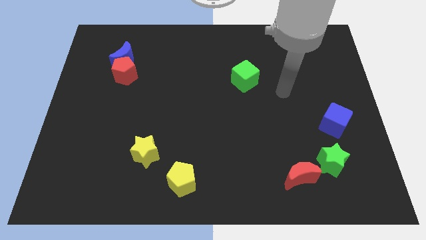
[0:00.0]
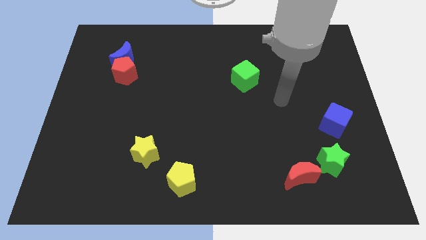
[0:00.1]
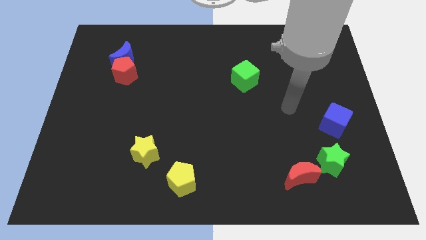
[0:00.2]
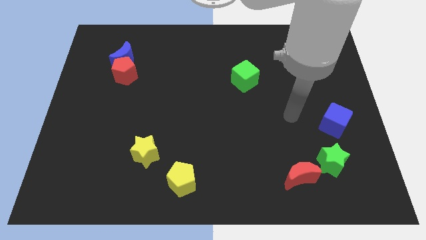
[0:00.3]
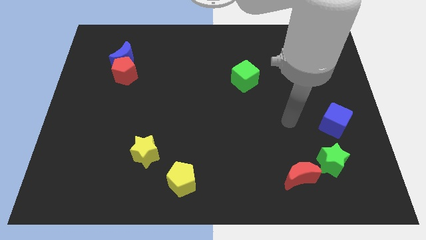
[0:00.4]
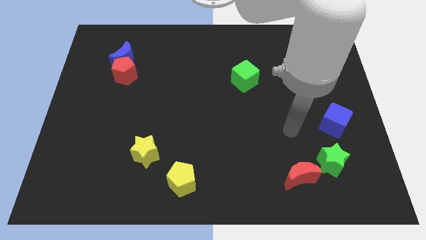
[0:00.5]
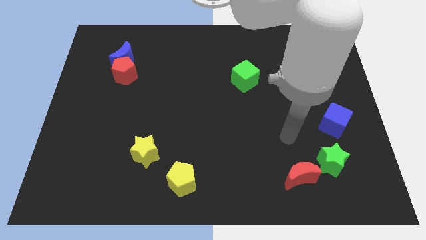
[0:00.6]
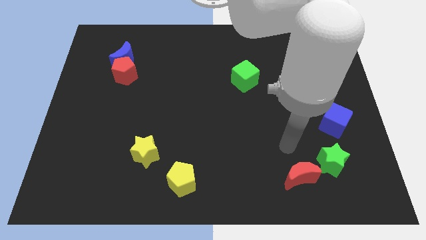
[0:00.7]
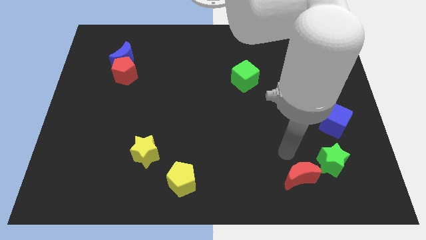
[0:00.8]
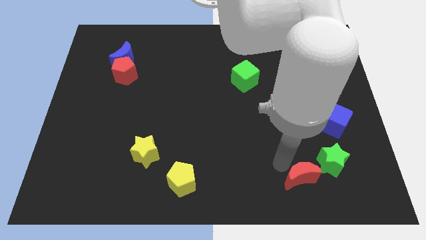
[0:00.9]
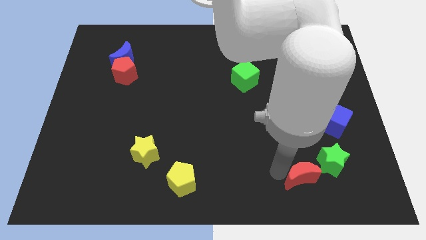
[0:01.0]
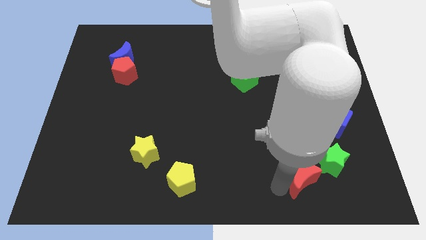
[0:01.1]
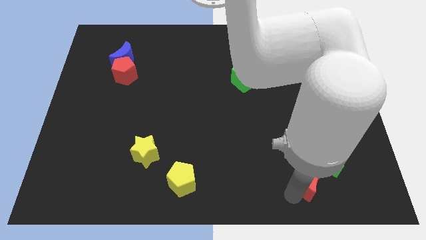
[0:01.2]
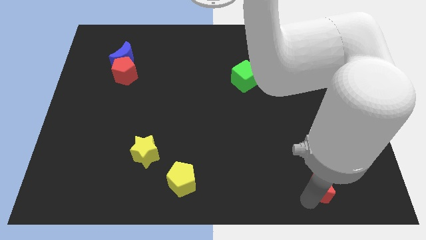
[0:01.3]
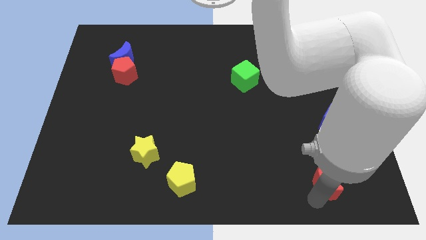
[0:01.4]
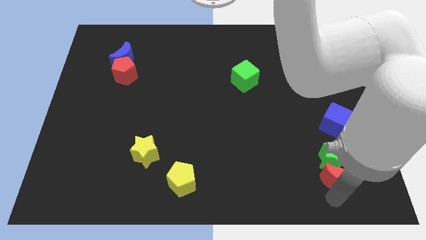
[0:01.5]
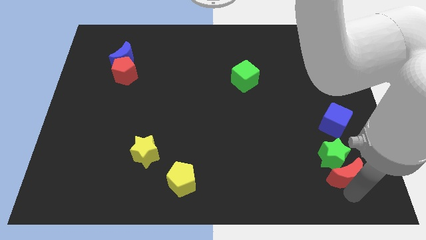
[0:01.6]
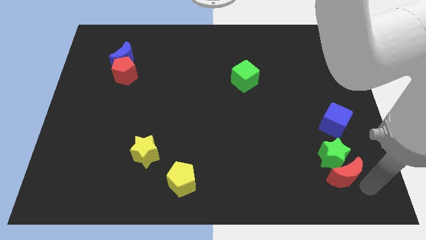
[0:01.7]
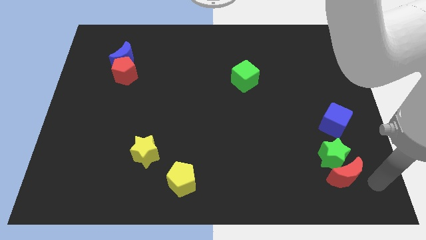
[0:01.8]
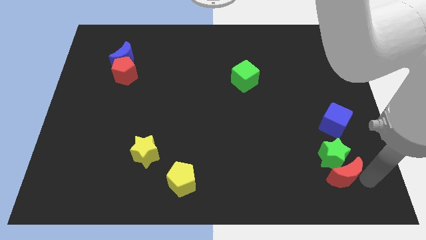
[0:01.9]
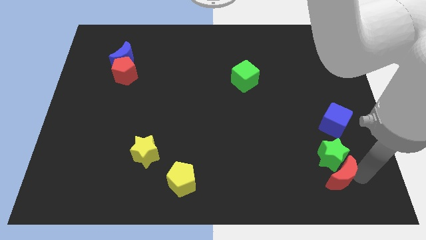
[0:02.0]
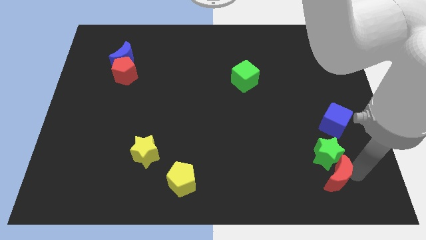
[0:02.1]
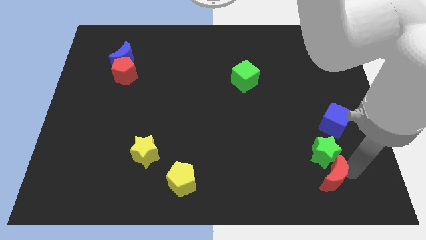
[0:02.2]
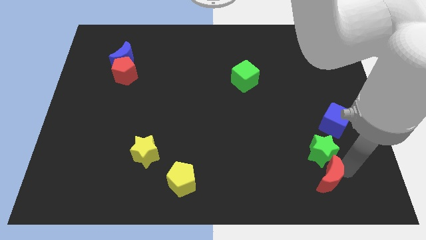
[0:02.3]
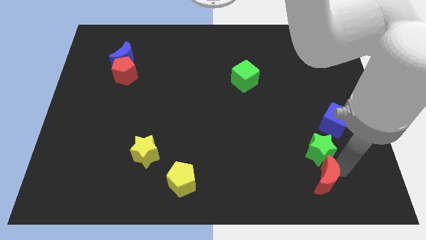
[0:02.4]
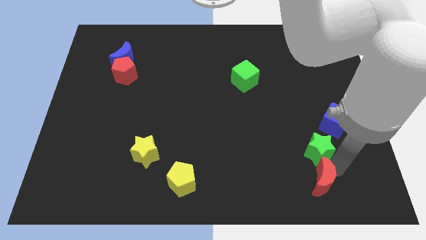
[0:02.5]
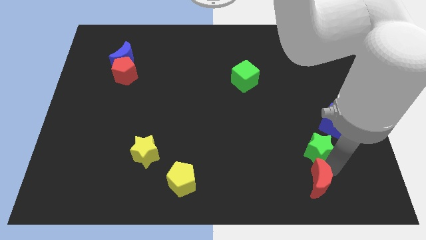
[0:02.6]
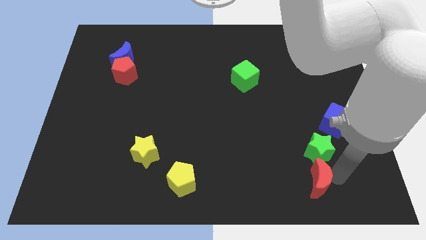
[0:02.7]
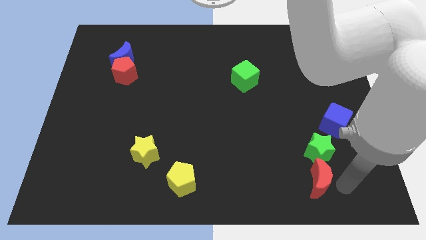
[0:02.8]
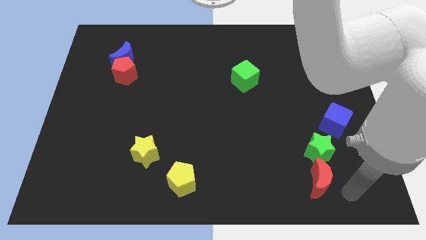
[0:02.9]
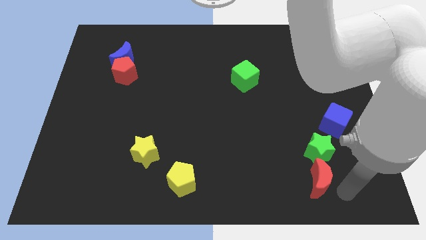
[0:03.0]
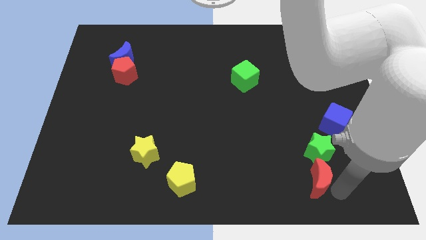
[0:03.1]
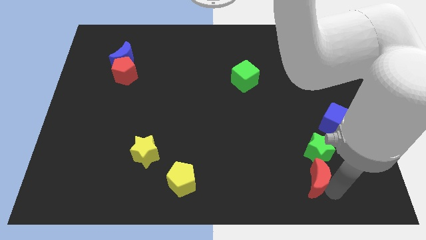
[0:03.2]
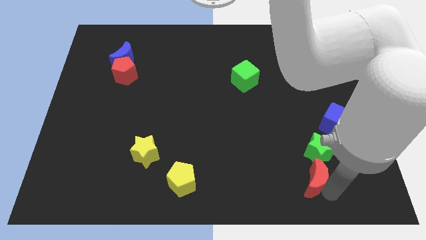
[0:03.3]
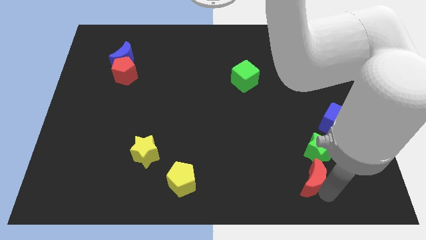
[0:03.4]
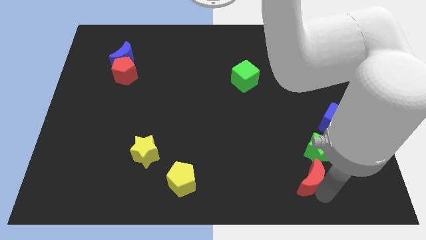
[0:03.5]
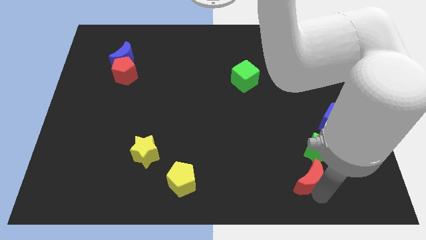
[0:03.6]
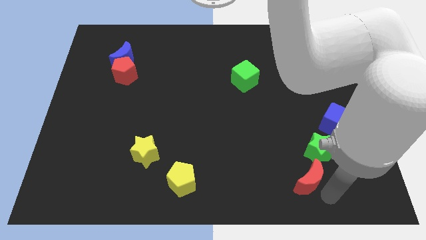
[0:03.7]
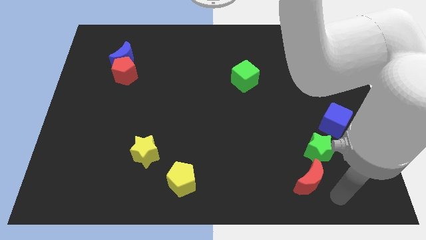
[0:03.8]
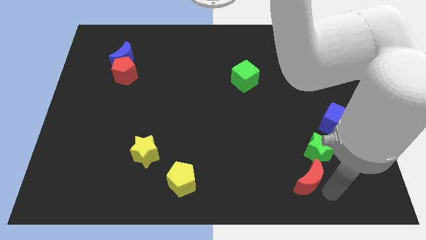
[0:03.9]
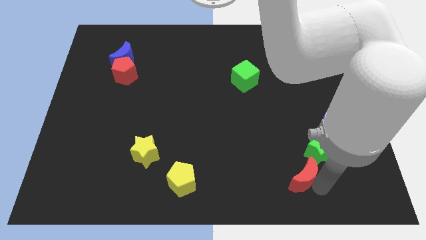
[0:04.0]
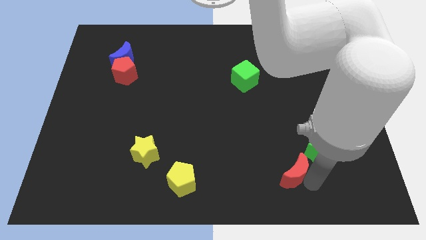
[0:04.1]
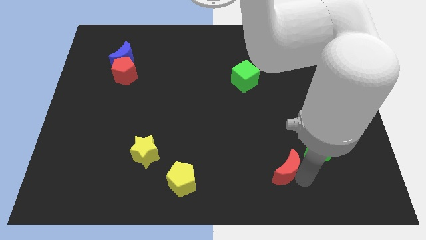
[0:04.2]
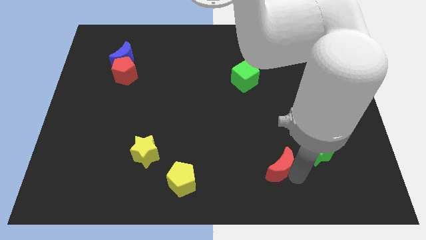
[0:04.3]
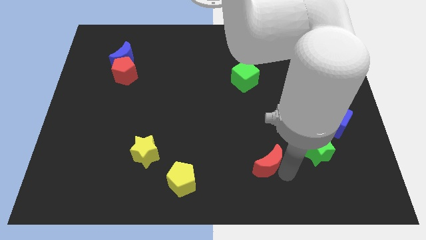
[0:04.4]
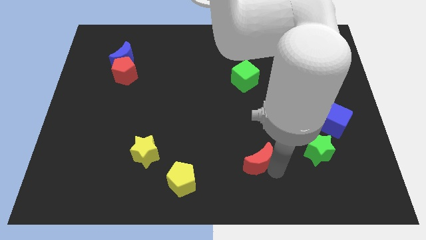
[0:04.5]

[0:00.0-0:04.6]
slightly push the red moon up and left

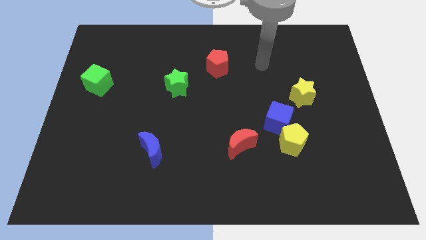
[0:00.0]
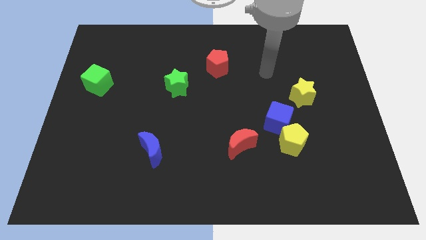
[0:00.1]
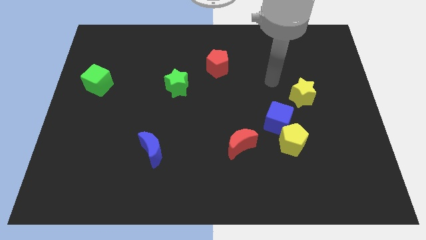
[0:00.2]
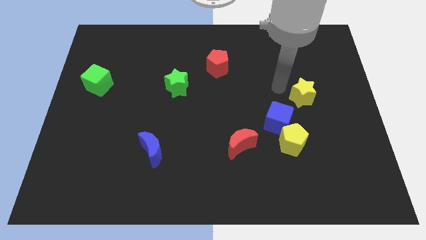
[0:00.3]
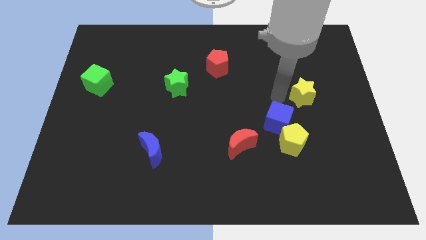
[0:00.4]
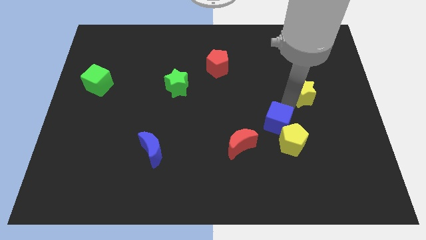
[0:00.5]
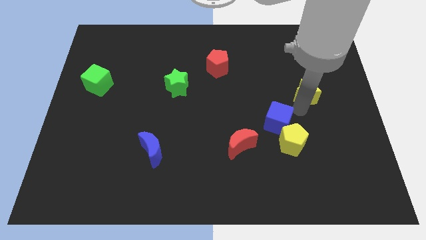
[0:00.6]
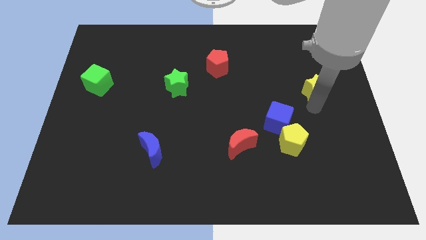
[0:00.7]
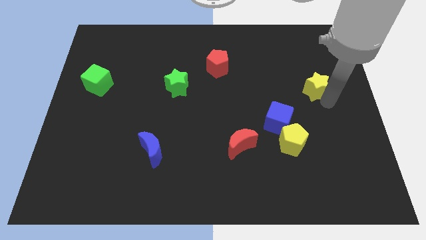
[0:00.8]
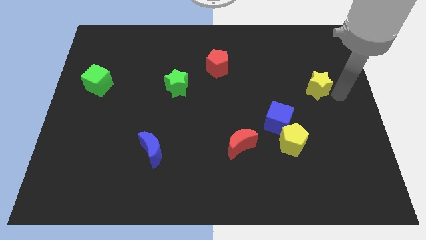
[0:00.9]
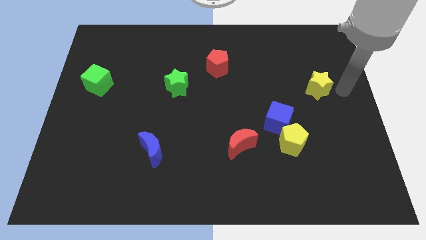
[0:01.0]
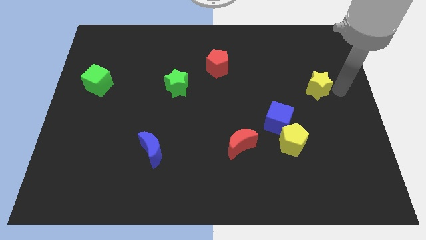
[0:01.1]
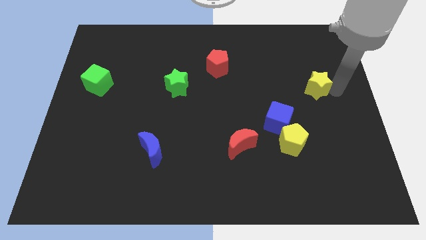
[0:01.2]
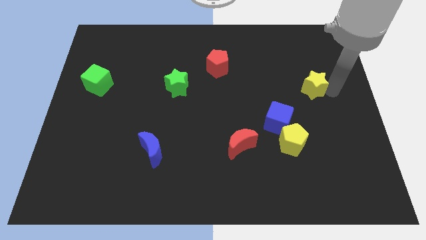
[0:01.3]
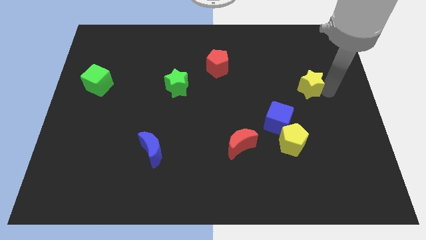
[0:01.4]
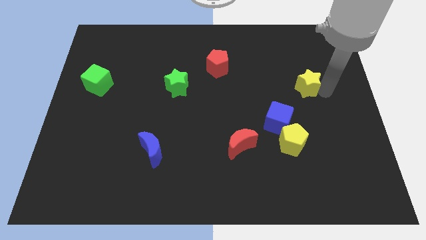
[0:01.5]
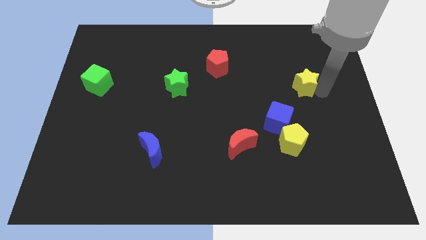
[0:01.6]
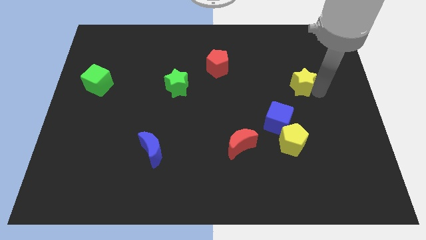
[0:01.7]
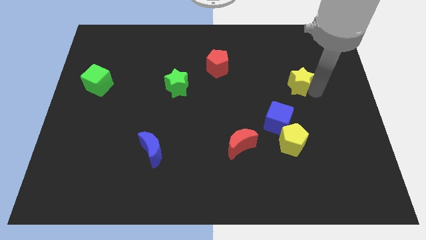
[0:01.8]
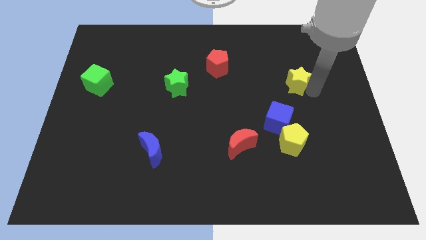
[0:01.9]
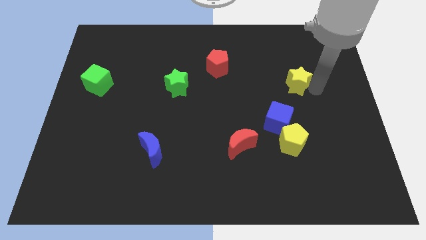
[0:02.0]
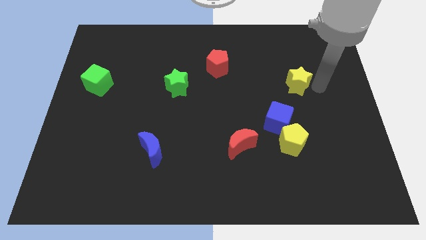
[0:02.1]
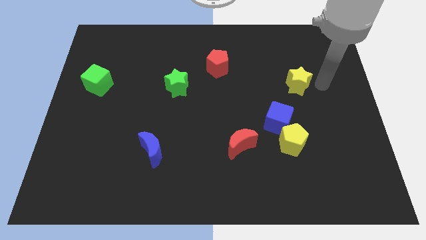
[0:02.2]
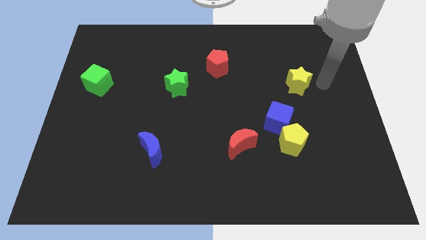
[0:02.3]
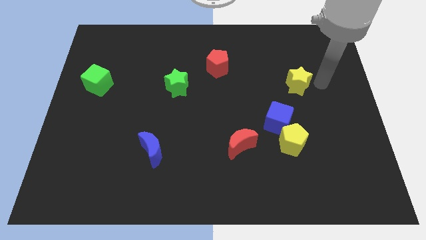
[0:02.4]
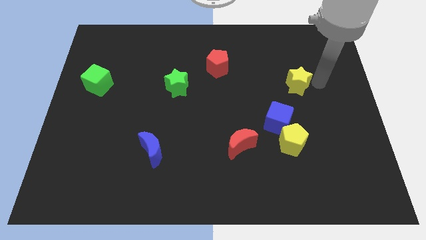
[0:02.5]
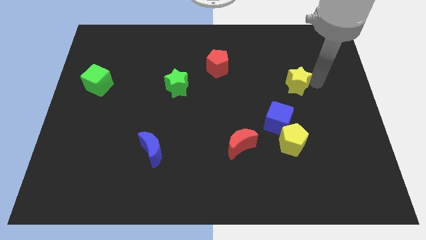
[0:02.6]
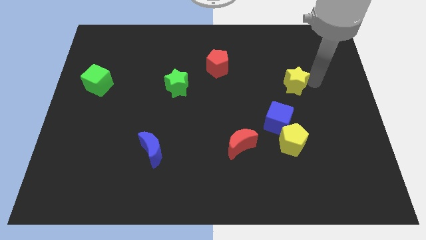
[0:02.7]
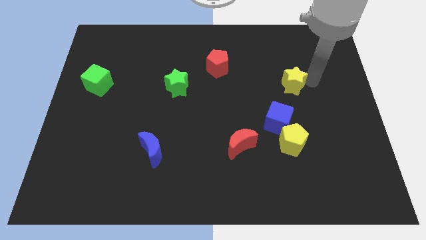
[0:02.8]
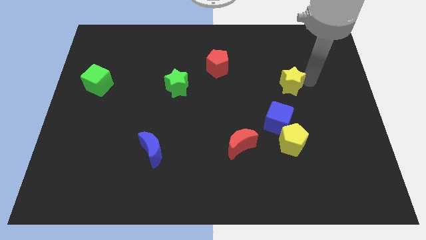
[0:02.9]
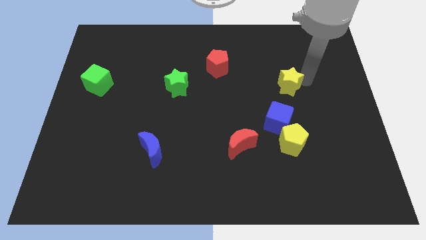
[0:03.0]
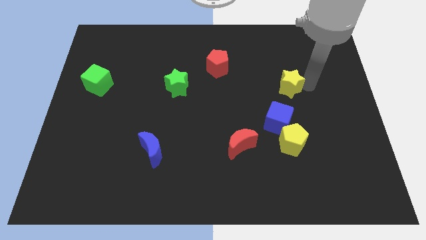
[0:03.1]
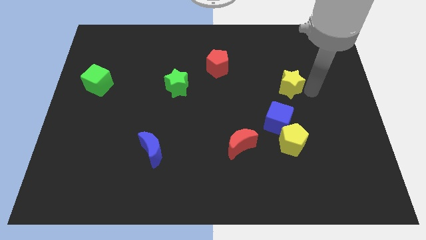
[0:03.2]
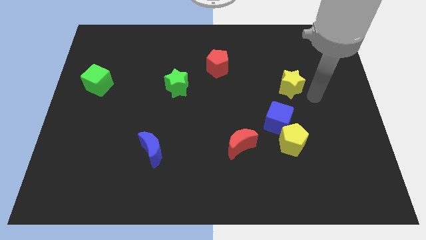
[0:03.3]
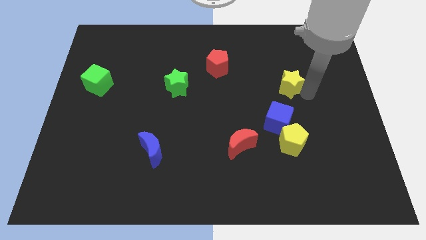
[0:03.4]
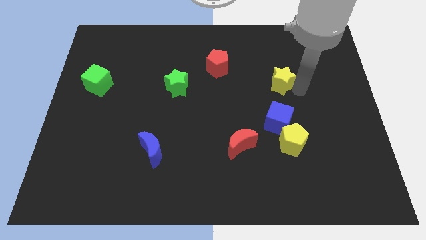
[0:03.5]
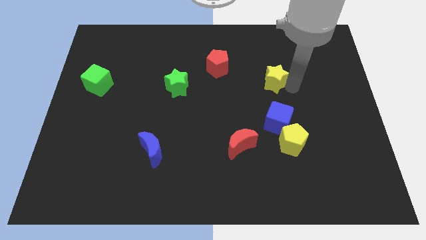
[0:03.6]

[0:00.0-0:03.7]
slightly push the yellow star diagonally upwards and left
